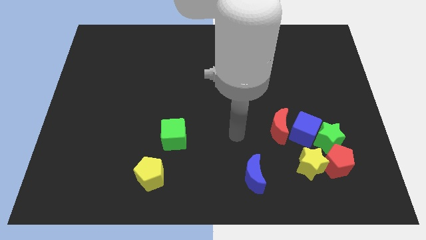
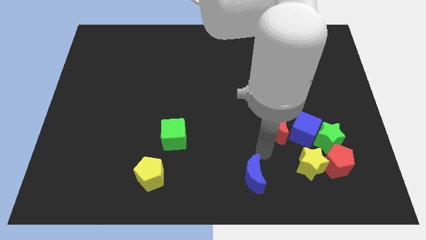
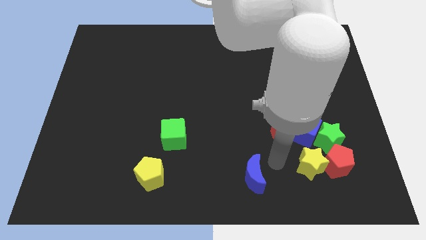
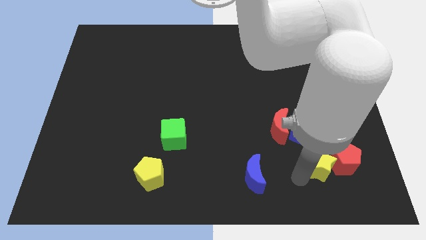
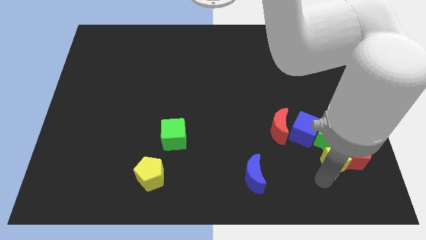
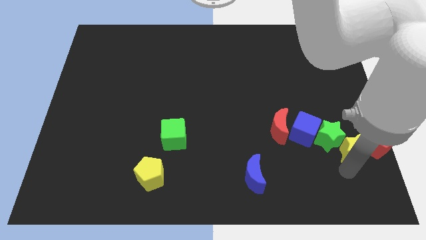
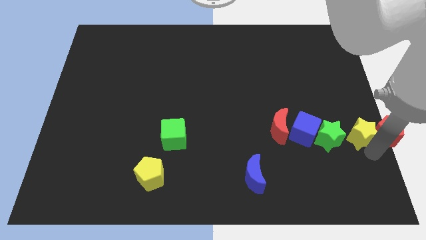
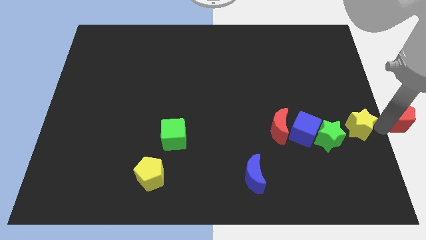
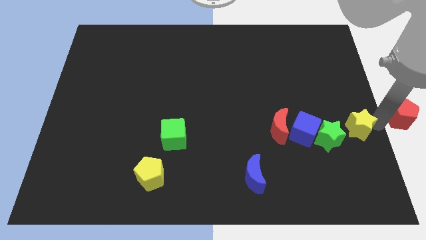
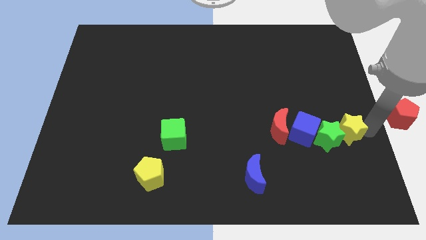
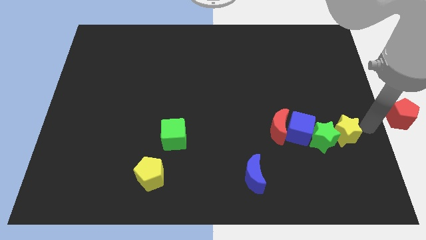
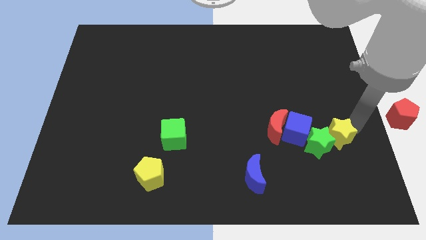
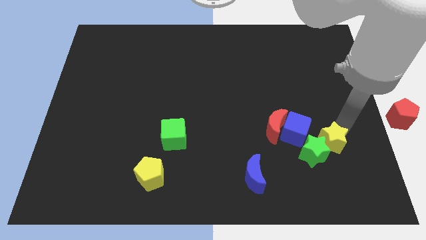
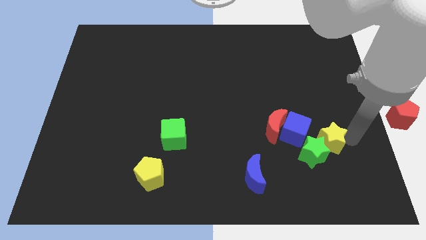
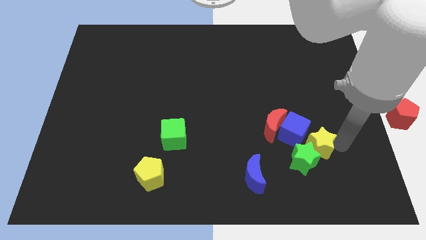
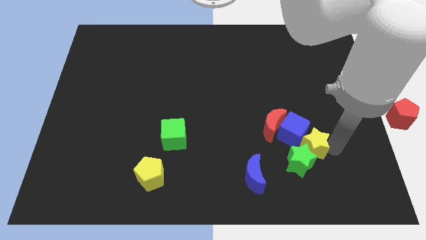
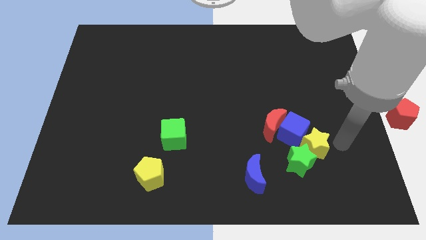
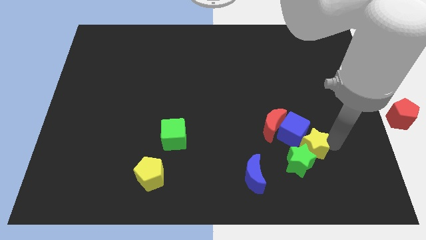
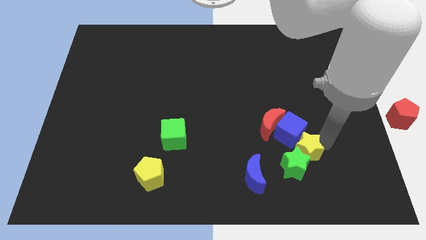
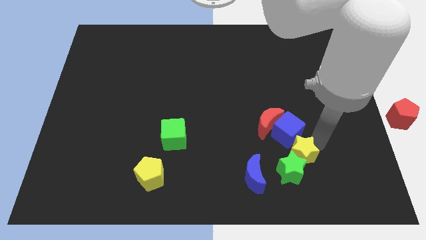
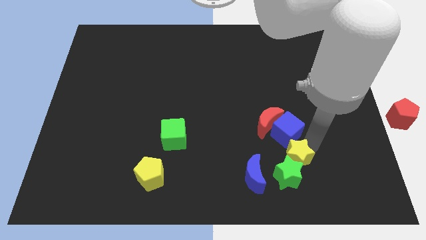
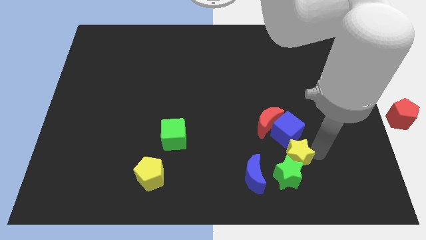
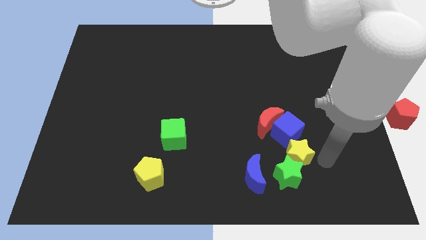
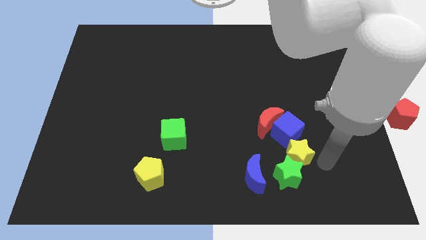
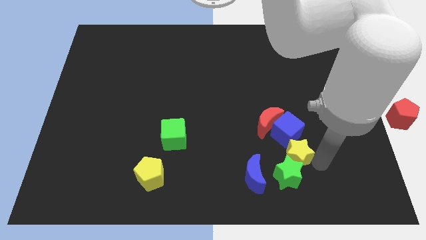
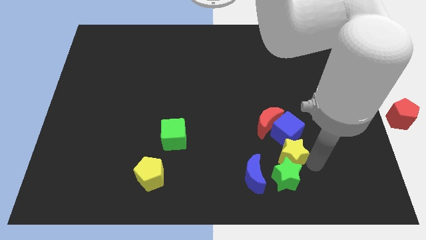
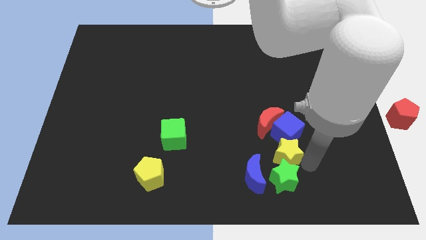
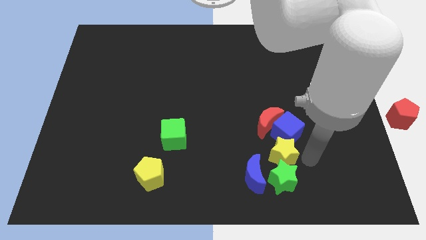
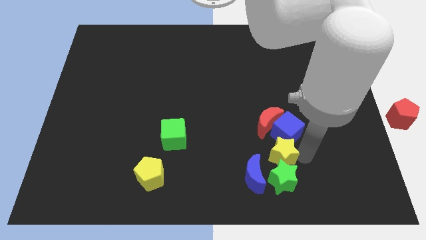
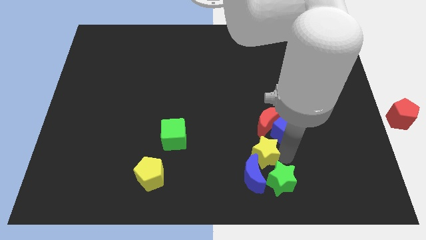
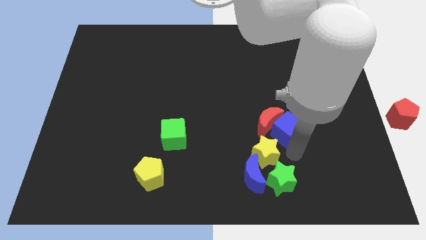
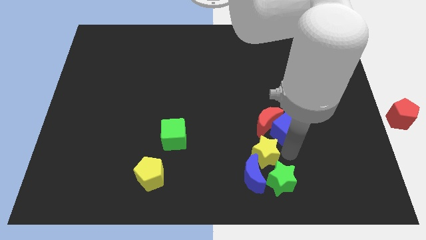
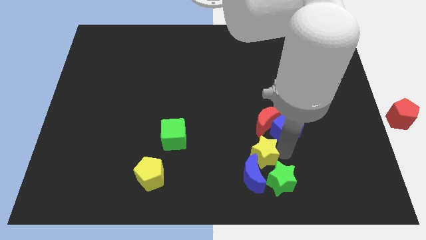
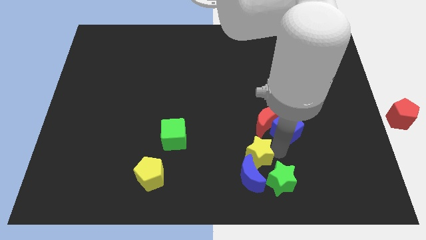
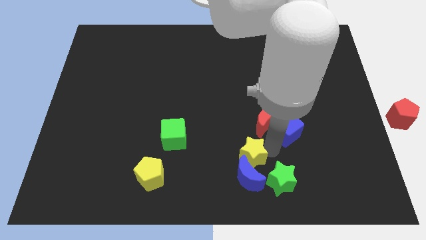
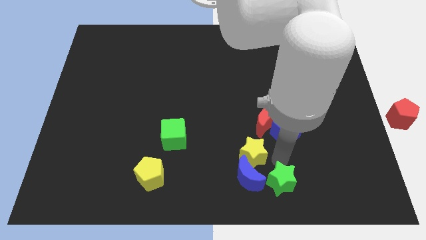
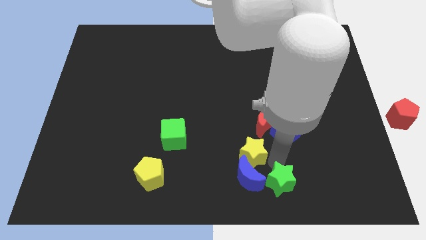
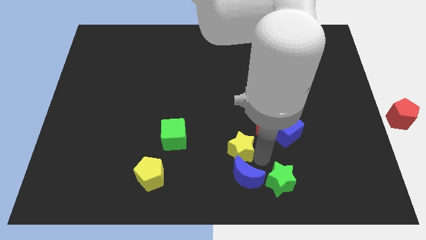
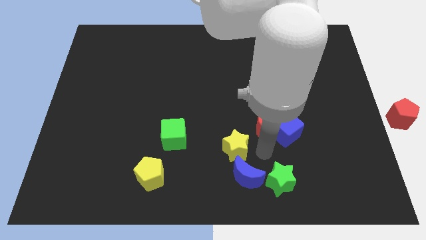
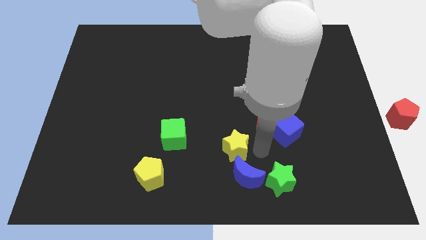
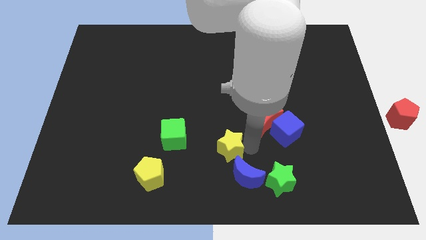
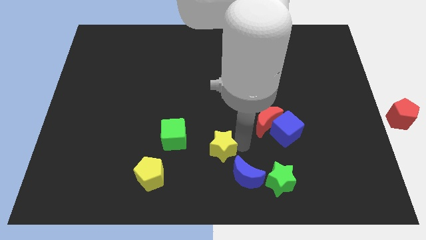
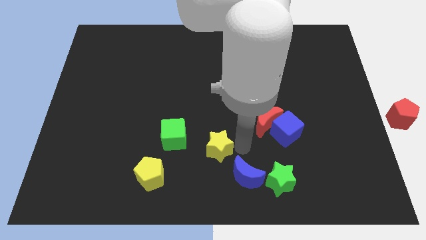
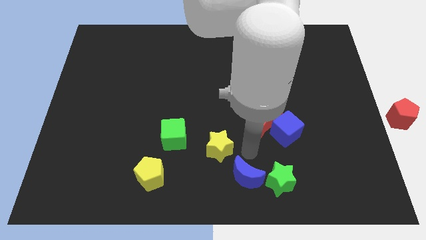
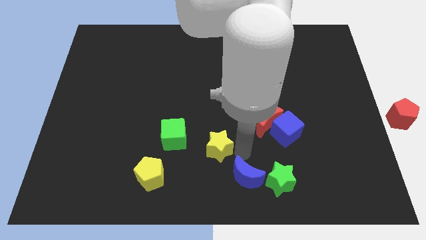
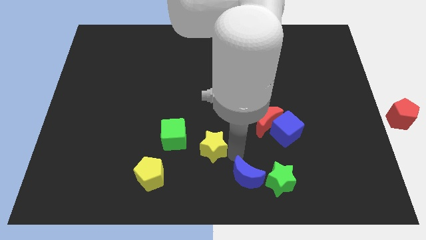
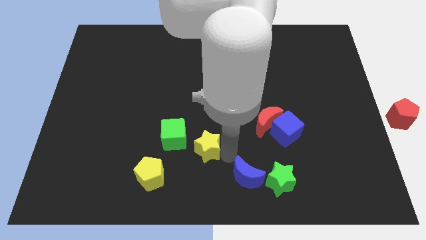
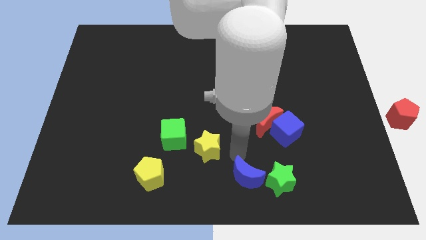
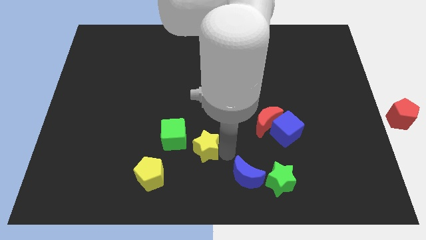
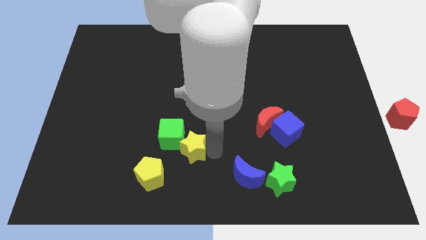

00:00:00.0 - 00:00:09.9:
move the yellow star to the green cube

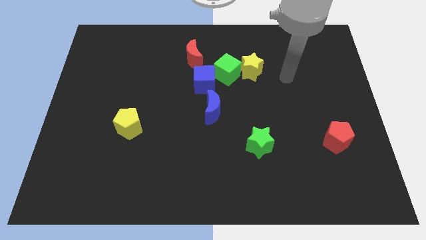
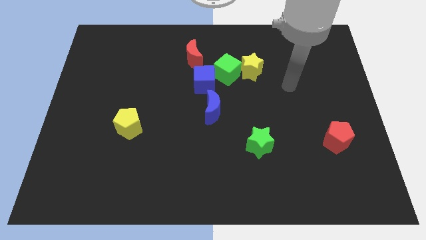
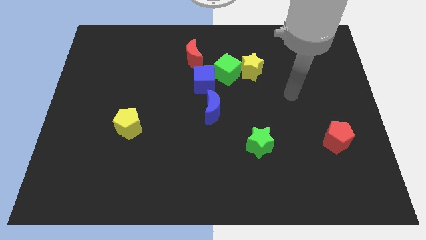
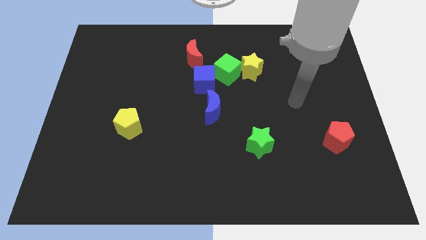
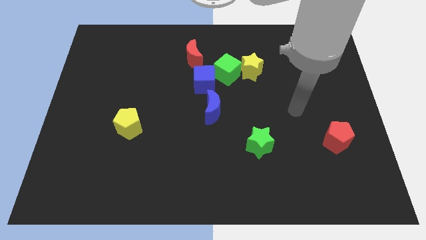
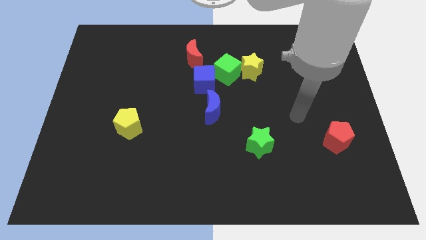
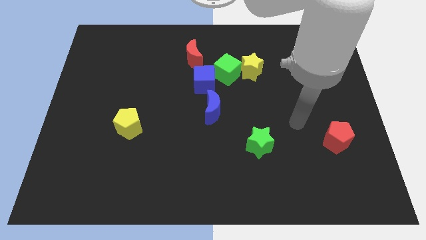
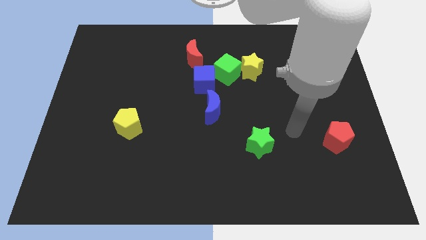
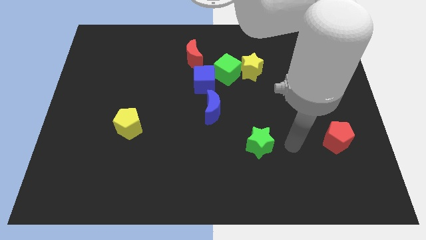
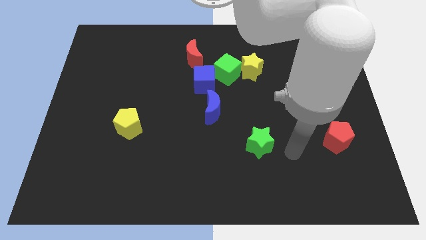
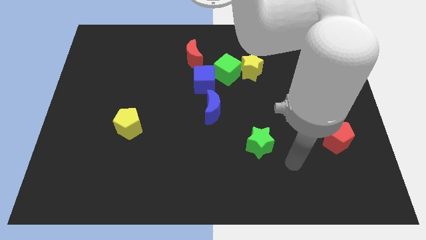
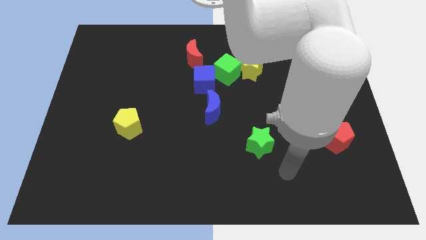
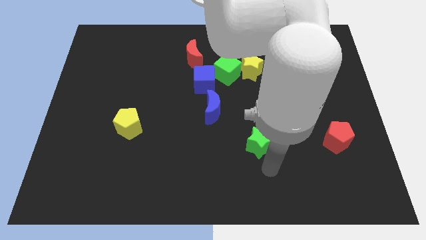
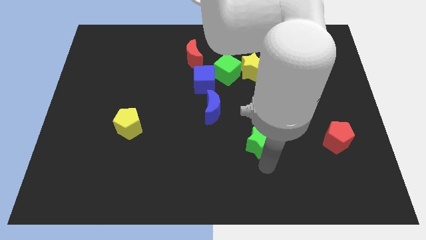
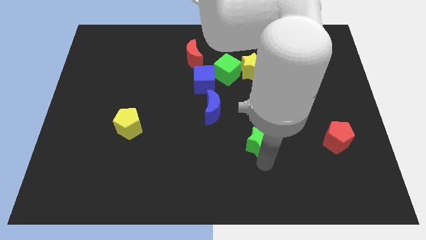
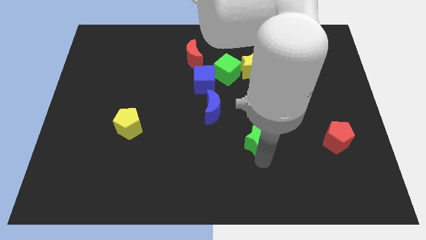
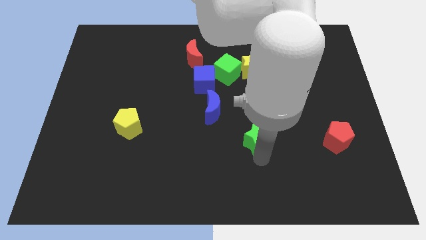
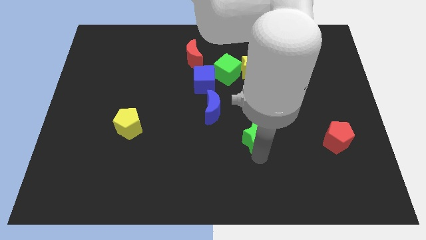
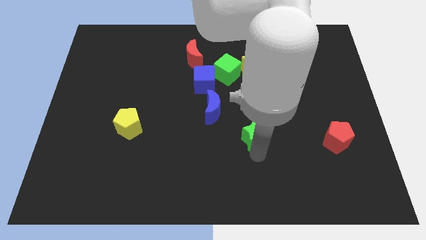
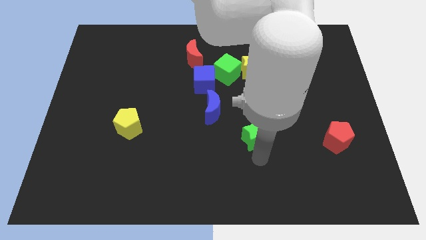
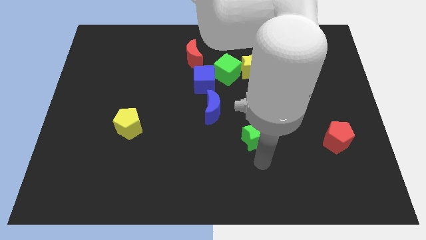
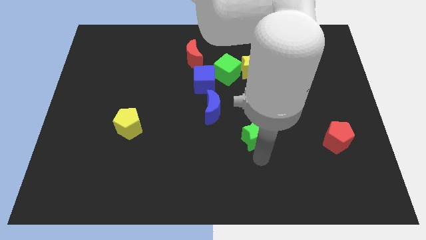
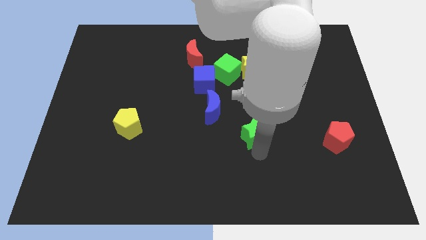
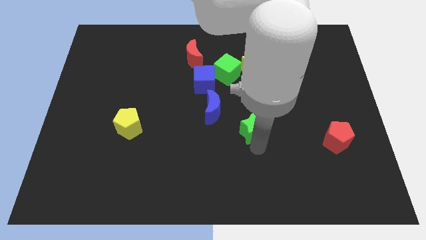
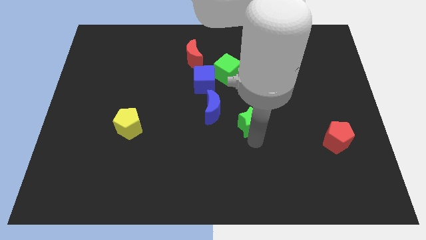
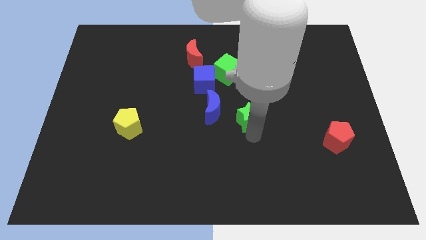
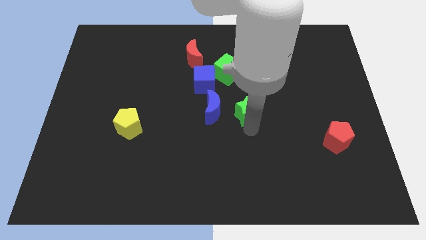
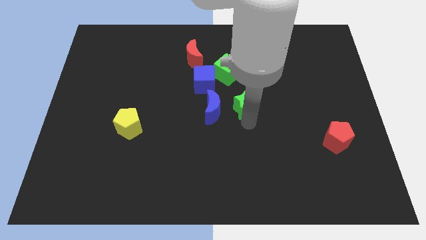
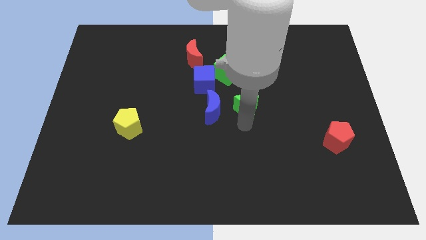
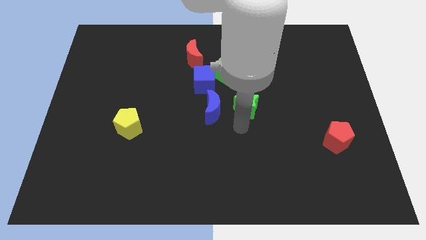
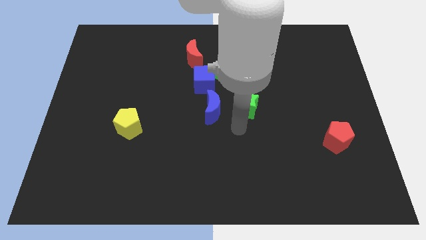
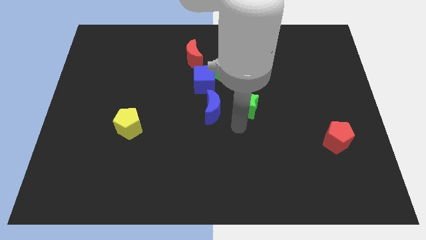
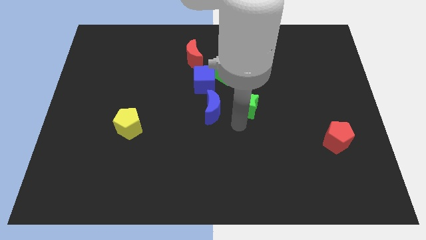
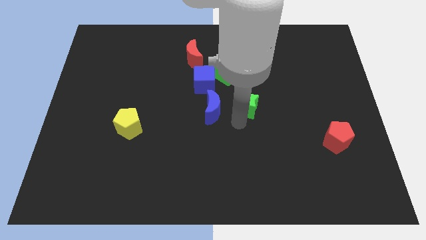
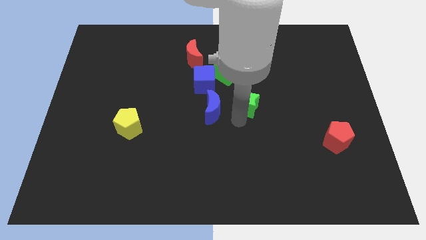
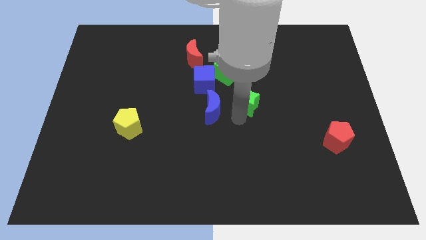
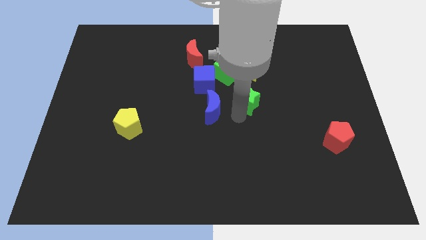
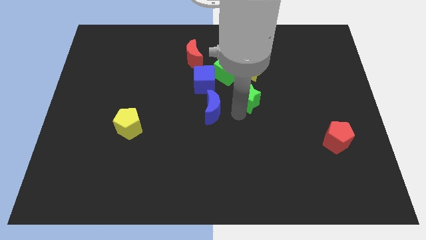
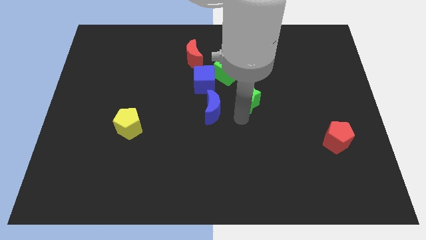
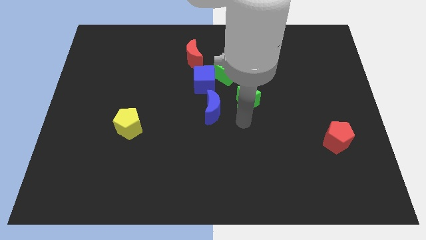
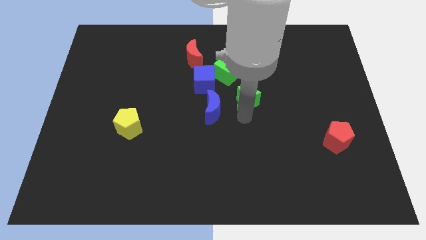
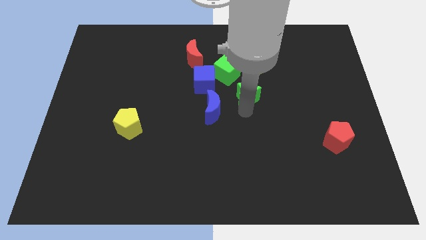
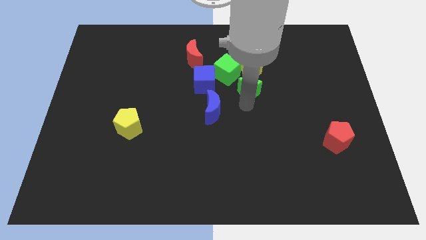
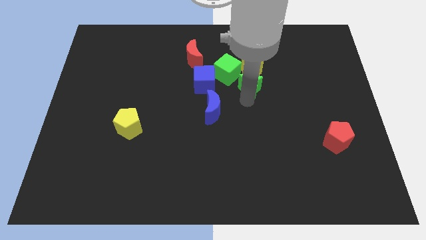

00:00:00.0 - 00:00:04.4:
move the green star close to the yellow star
